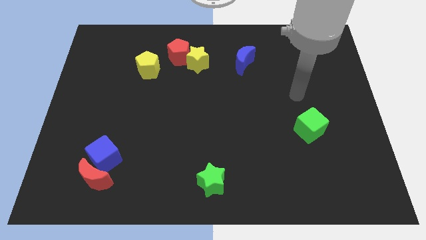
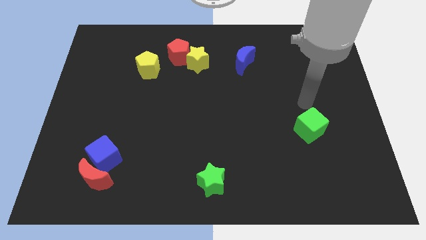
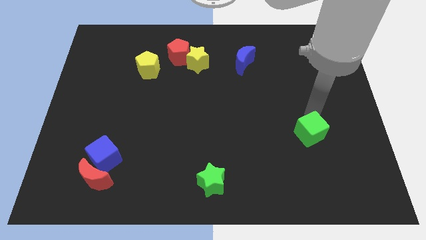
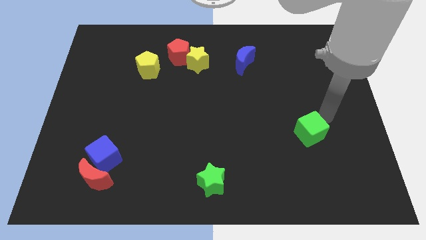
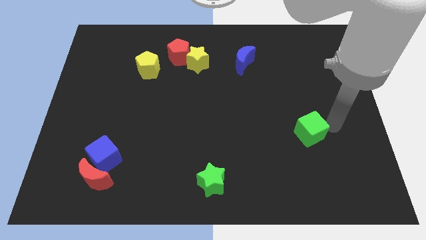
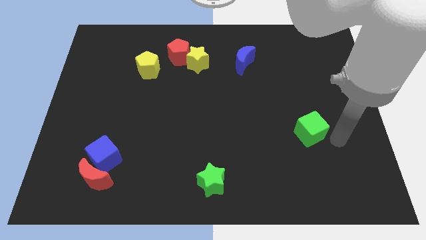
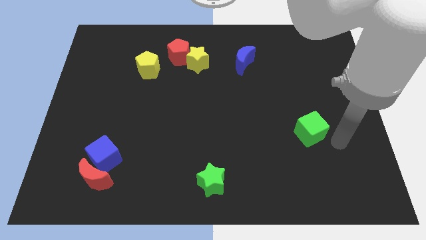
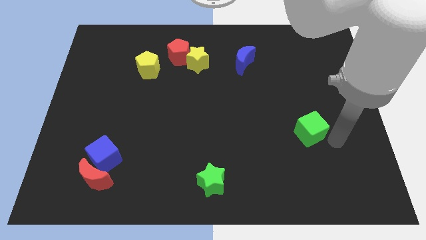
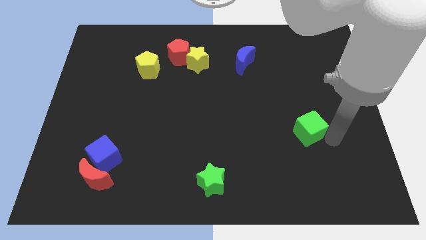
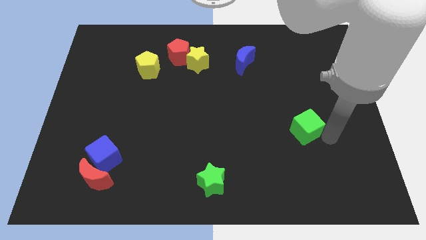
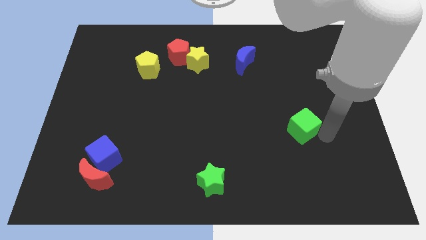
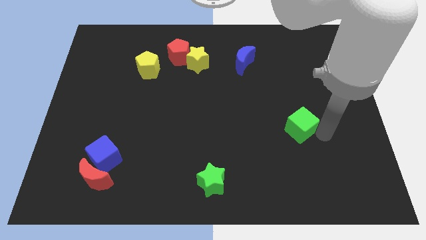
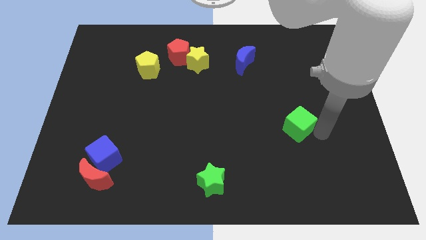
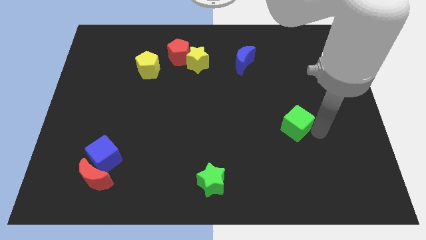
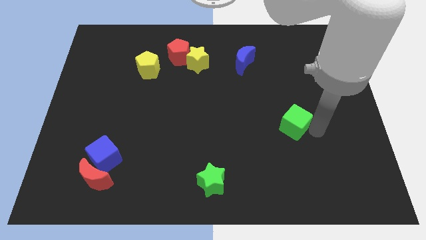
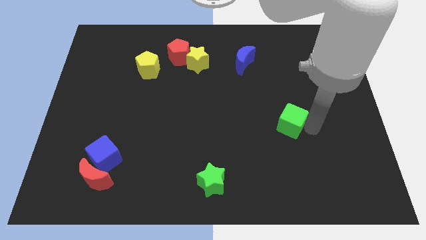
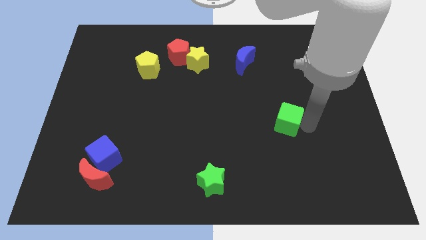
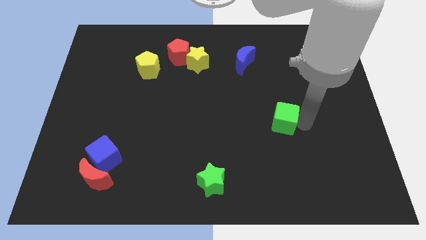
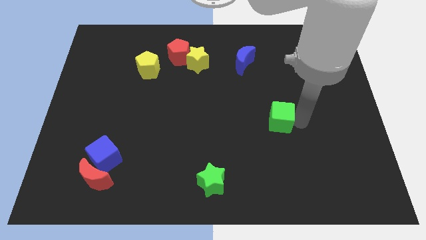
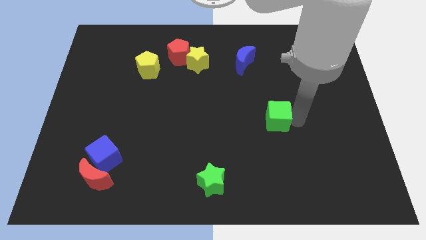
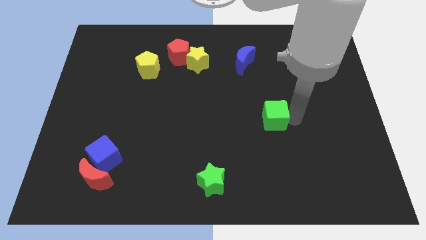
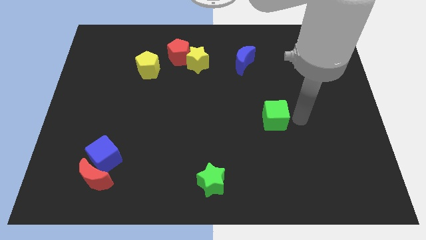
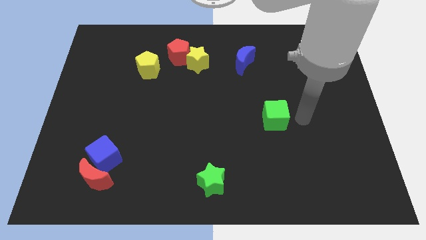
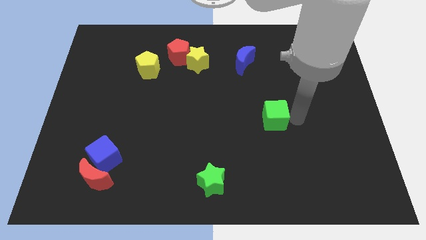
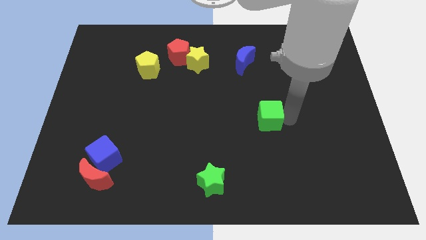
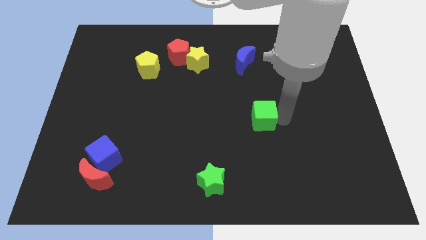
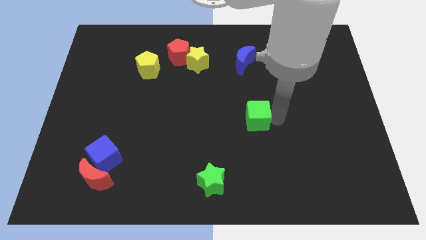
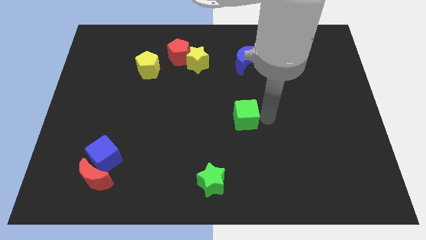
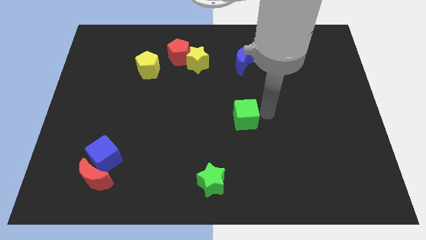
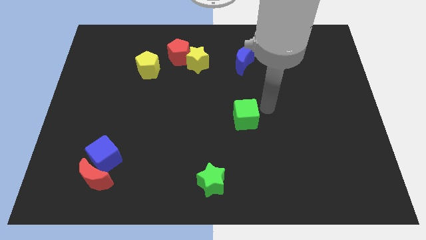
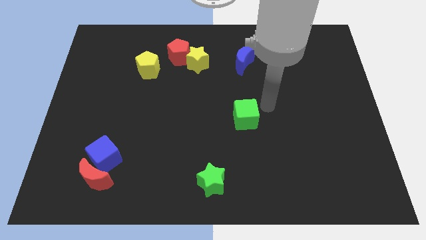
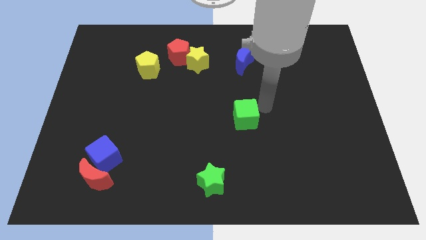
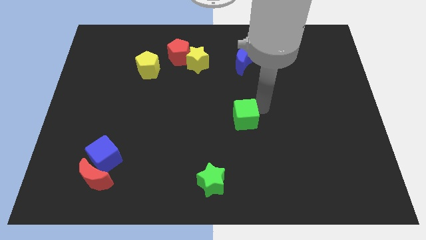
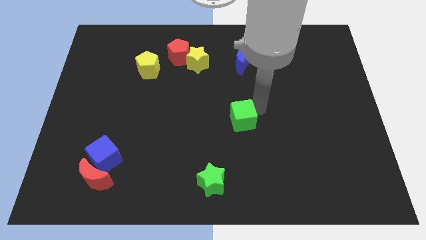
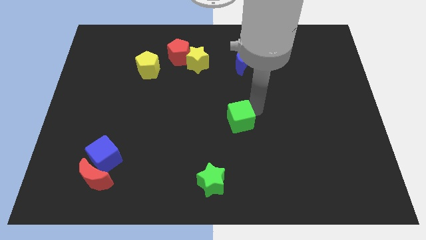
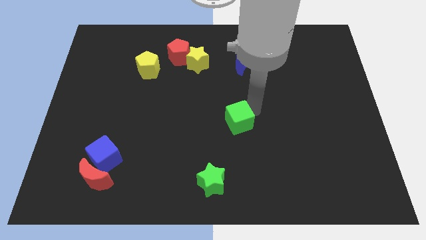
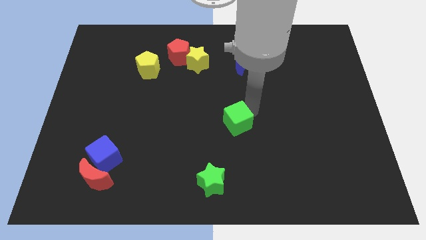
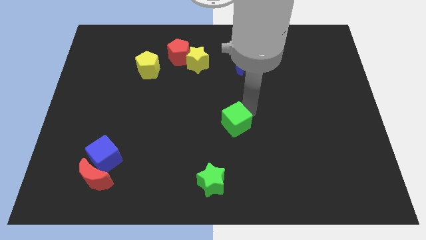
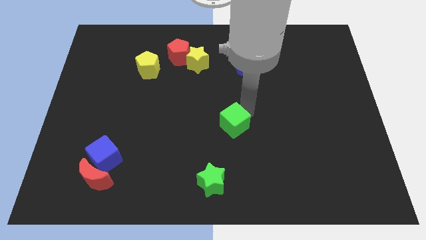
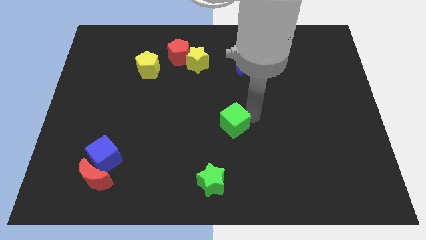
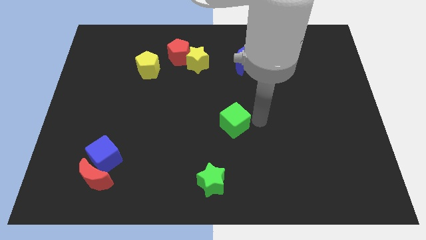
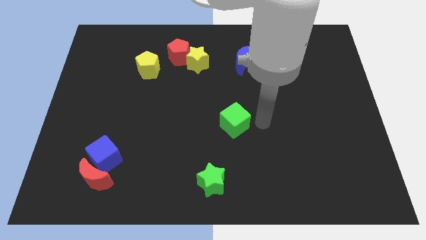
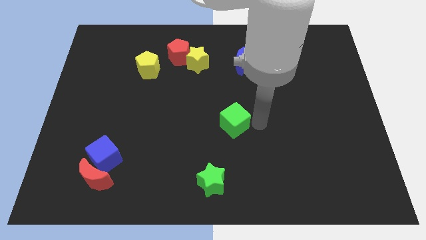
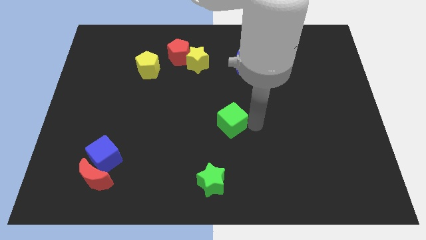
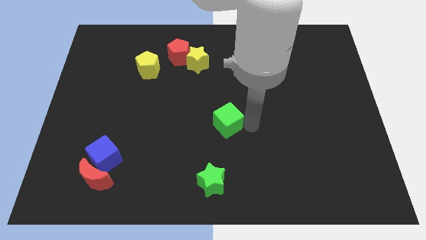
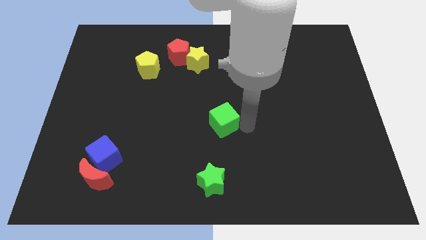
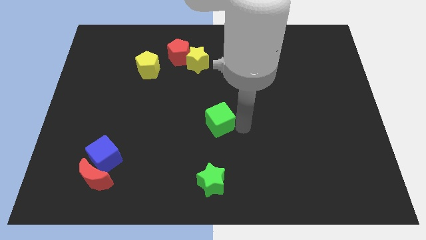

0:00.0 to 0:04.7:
move the green cube left

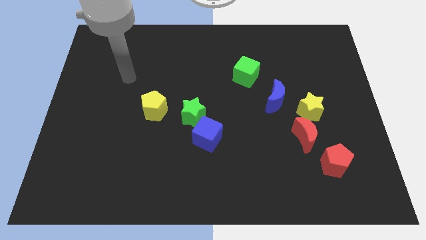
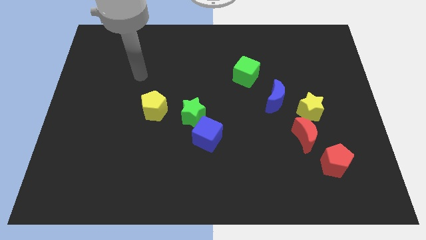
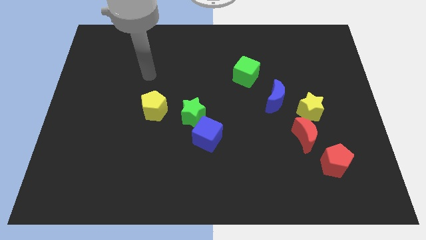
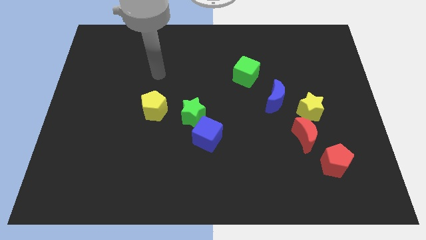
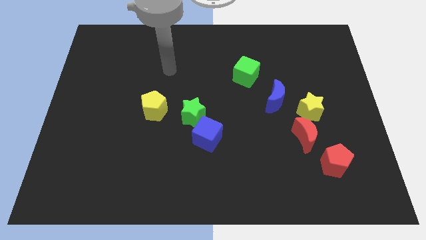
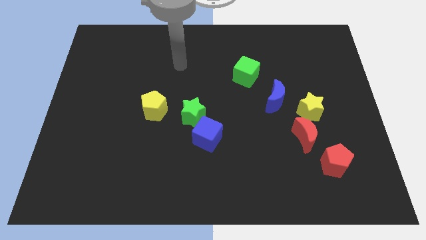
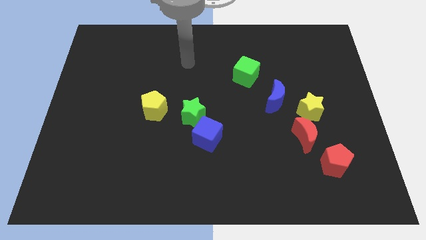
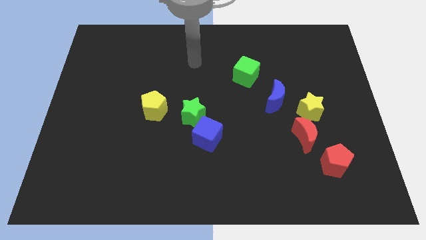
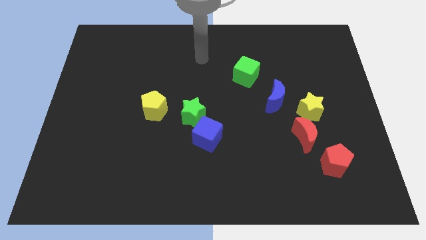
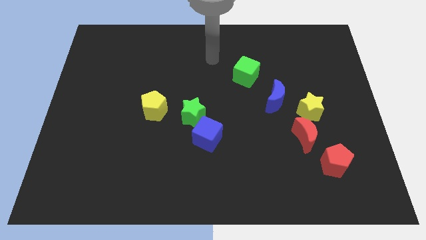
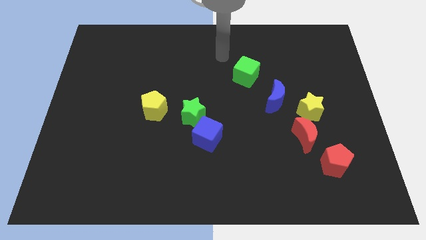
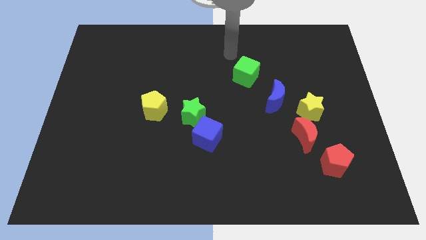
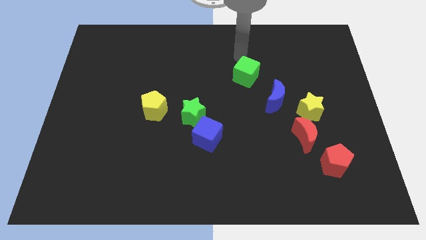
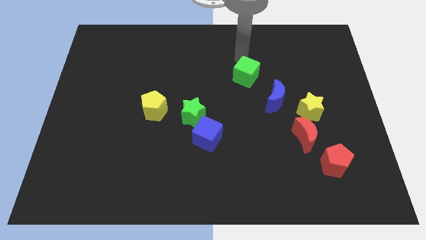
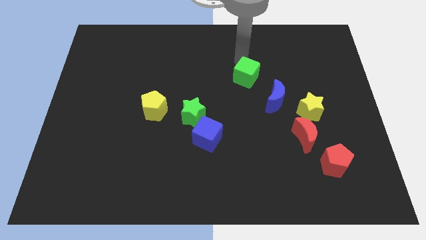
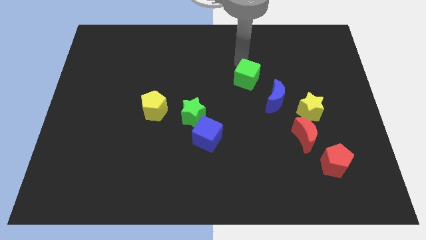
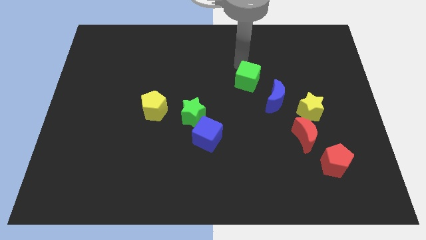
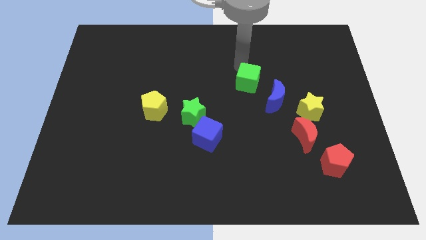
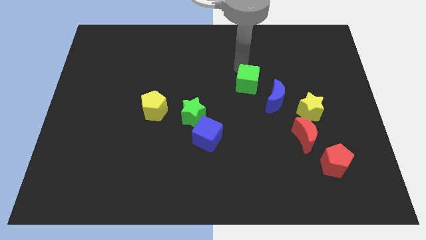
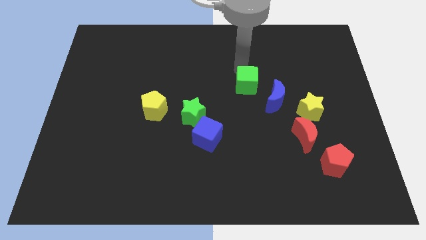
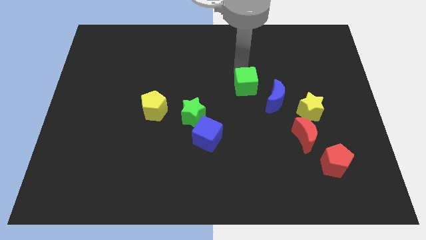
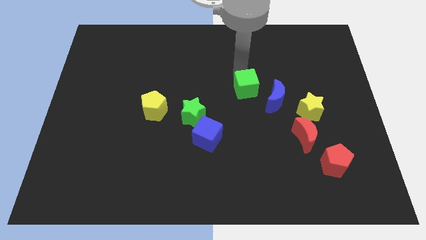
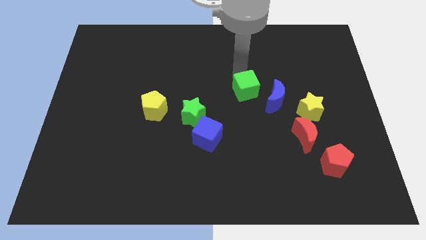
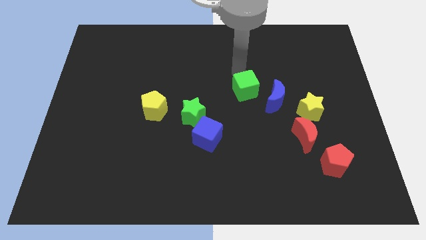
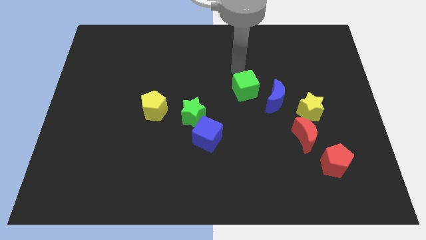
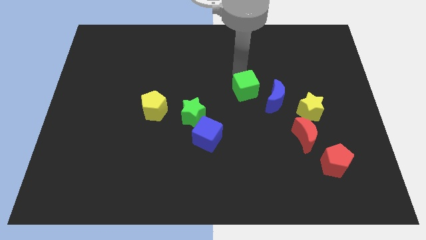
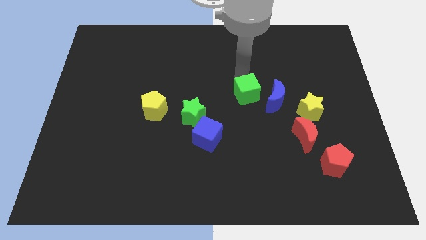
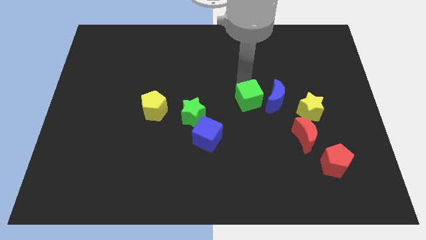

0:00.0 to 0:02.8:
slide the green cube slightly downwards
